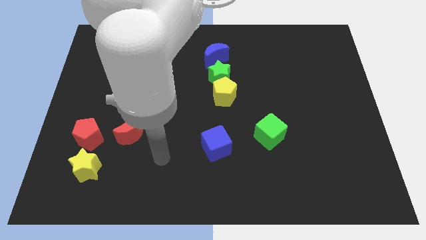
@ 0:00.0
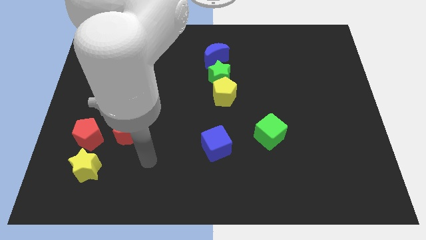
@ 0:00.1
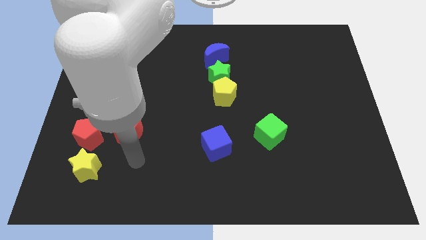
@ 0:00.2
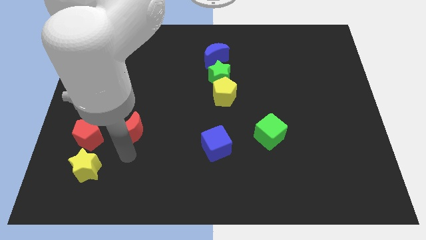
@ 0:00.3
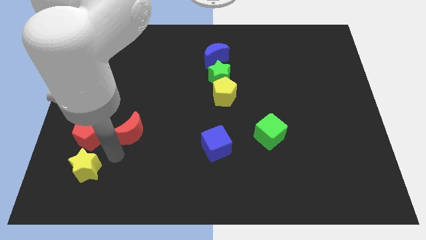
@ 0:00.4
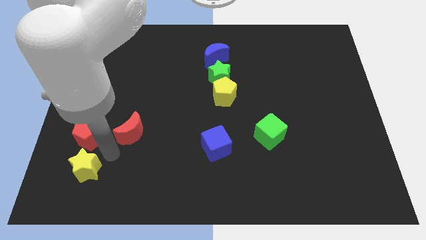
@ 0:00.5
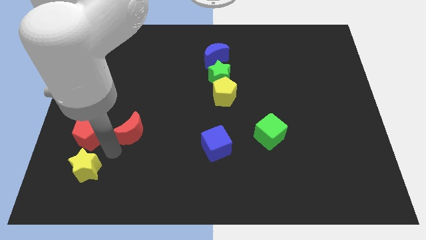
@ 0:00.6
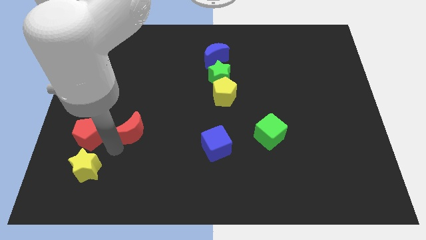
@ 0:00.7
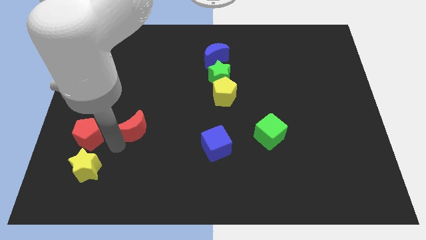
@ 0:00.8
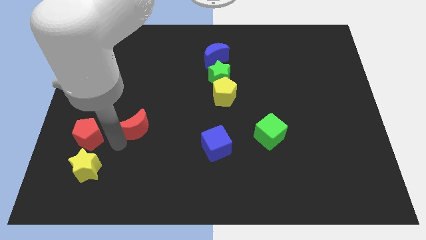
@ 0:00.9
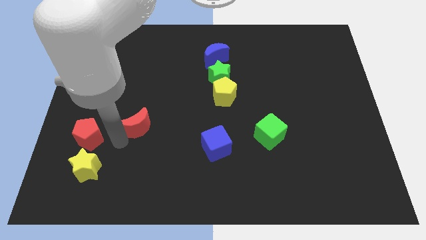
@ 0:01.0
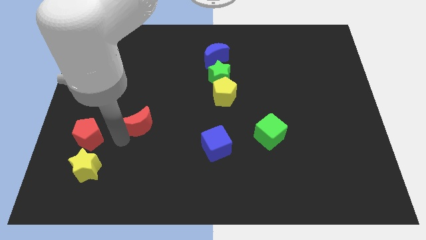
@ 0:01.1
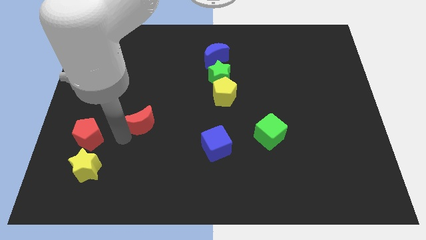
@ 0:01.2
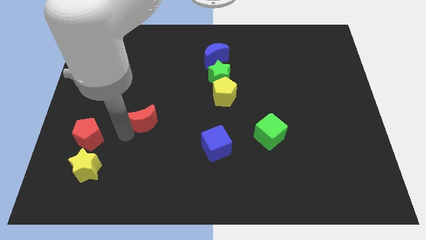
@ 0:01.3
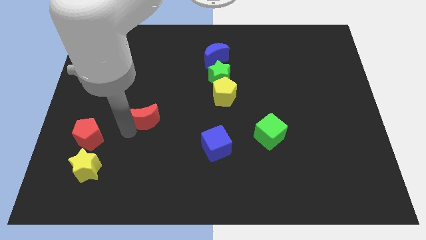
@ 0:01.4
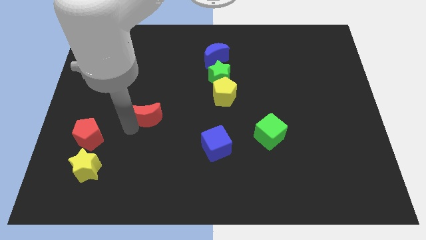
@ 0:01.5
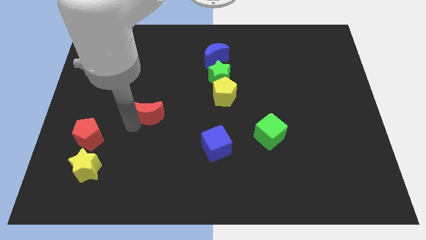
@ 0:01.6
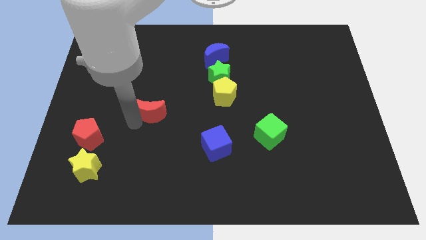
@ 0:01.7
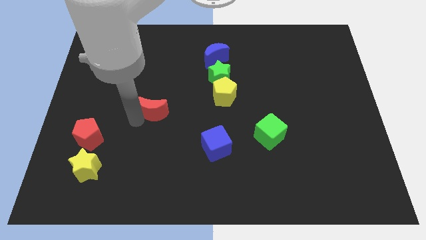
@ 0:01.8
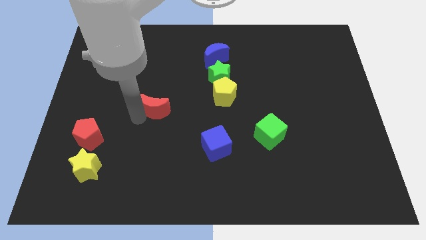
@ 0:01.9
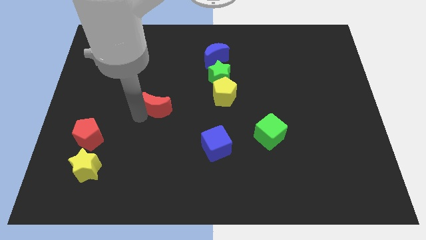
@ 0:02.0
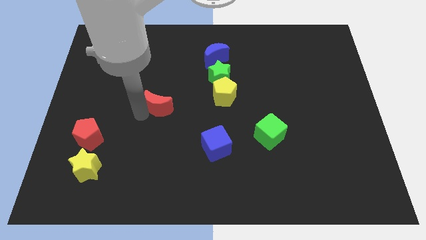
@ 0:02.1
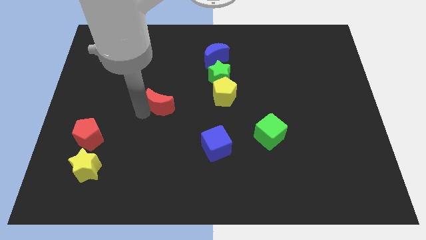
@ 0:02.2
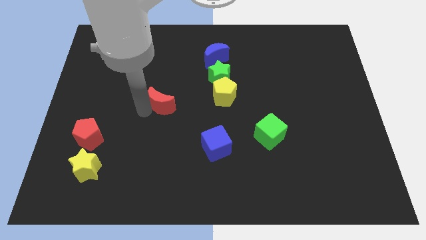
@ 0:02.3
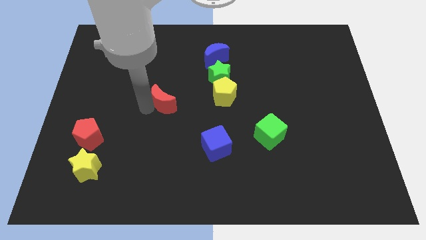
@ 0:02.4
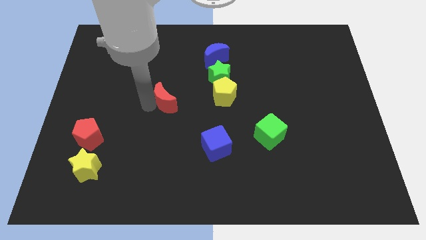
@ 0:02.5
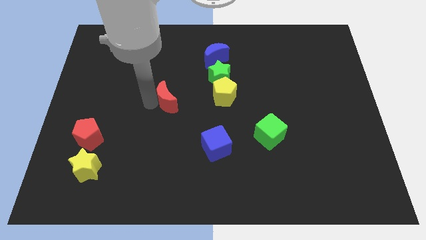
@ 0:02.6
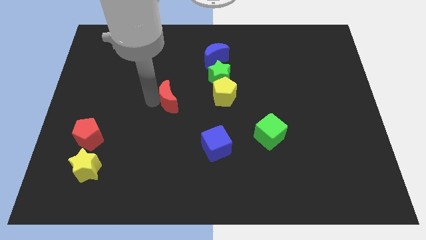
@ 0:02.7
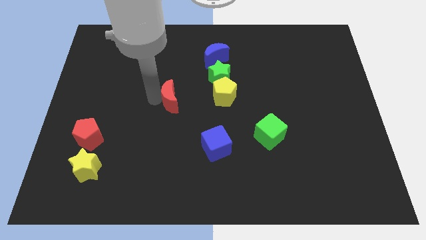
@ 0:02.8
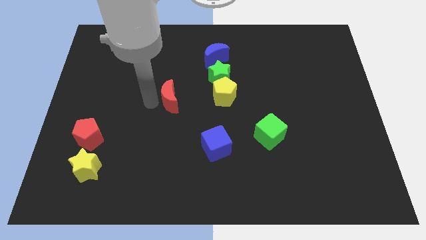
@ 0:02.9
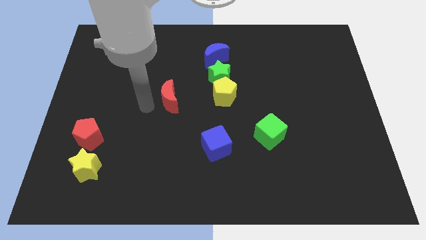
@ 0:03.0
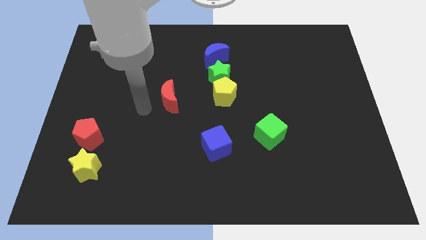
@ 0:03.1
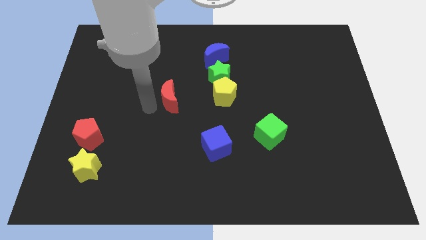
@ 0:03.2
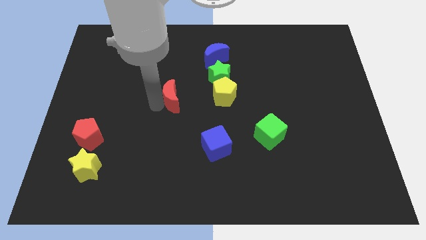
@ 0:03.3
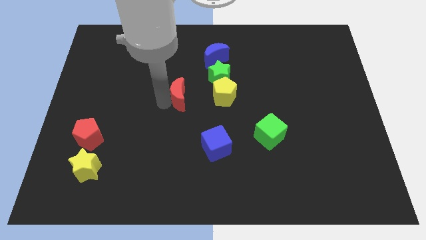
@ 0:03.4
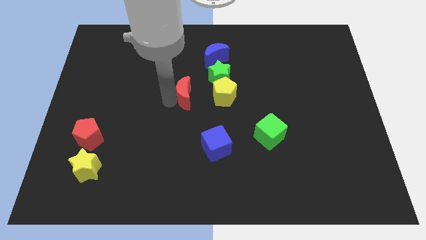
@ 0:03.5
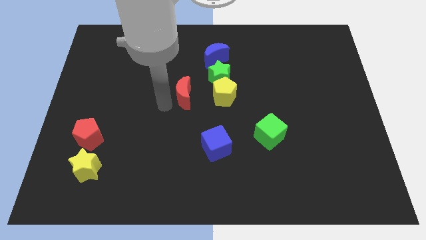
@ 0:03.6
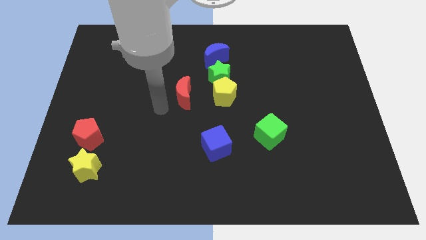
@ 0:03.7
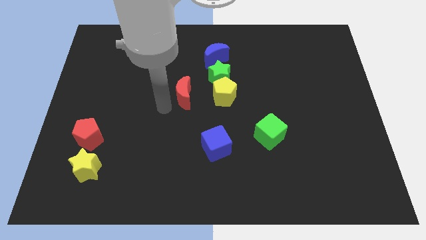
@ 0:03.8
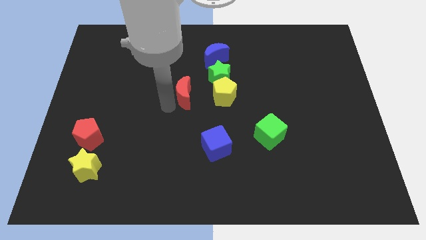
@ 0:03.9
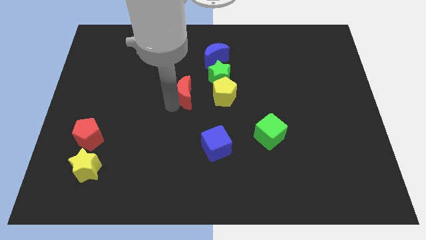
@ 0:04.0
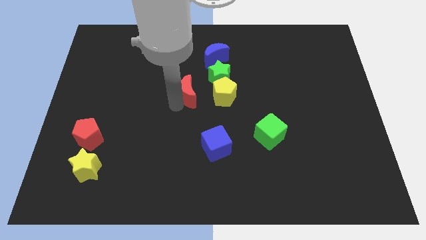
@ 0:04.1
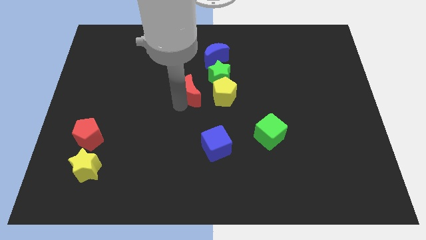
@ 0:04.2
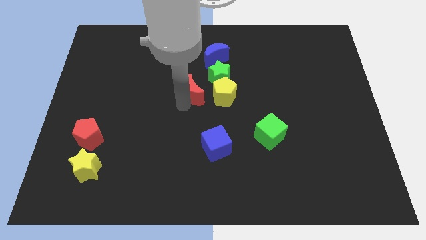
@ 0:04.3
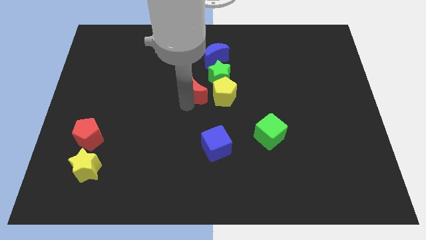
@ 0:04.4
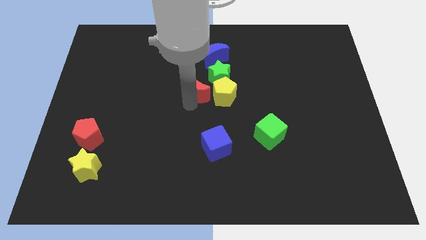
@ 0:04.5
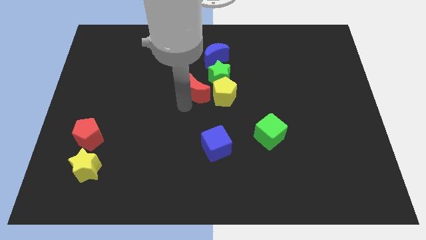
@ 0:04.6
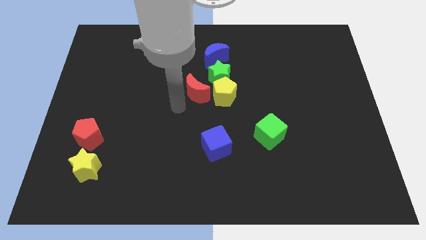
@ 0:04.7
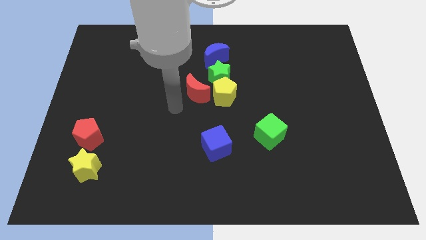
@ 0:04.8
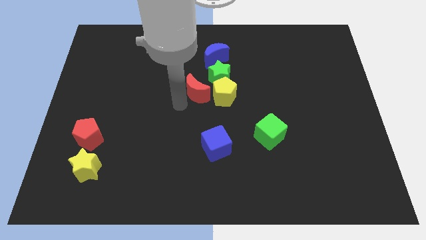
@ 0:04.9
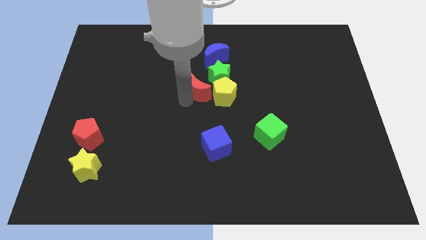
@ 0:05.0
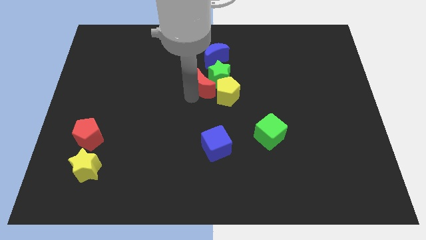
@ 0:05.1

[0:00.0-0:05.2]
push the red moon close to the green star

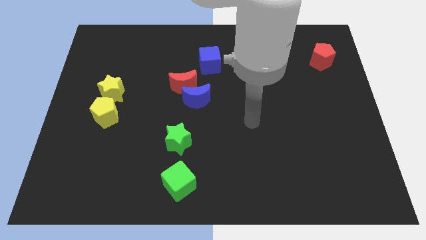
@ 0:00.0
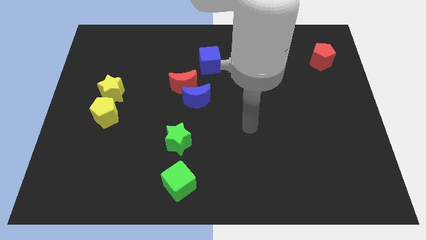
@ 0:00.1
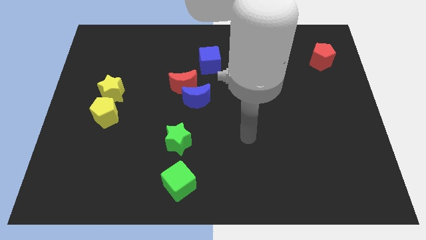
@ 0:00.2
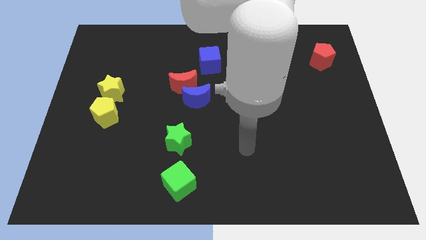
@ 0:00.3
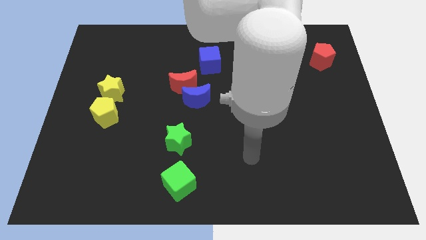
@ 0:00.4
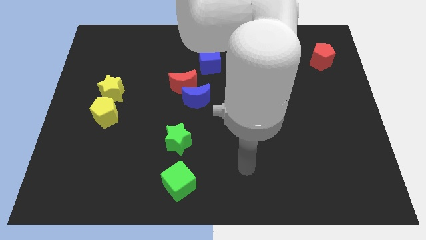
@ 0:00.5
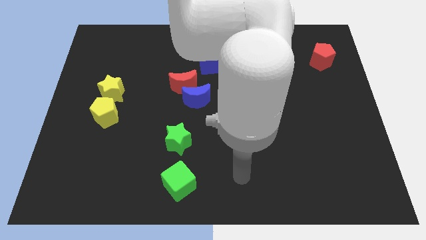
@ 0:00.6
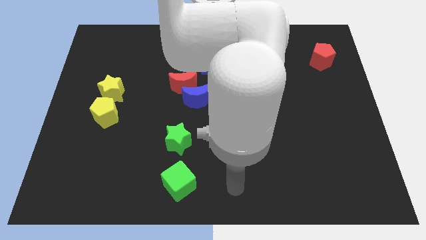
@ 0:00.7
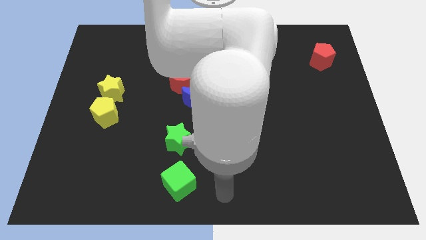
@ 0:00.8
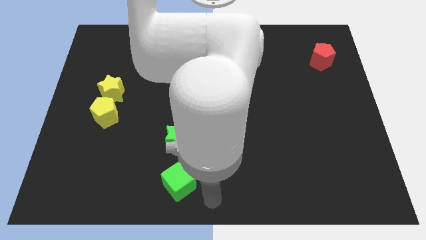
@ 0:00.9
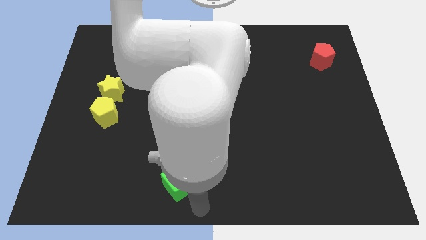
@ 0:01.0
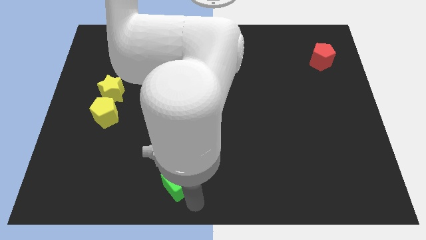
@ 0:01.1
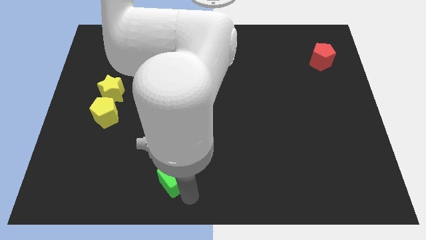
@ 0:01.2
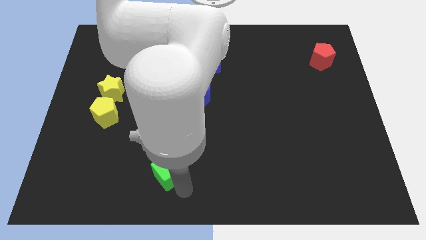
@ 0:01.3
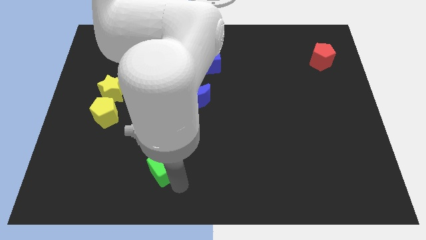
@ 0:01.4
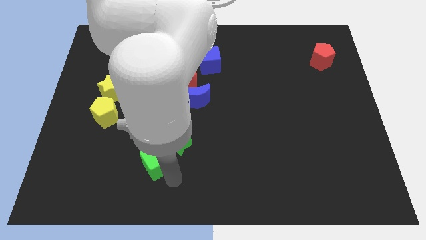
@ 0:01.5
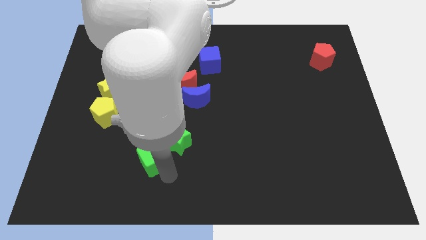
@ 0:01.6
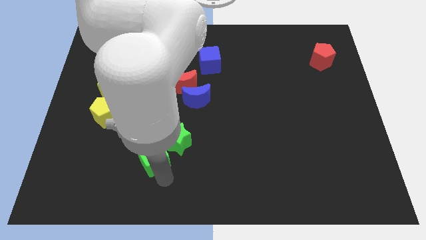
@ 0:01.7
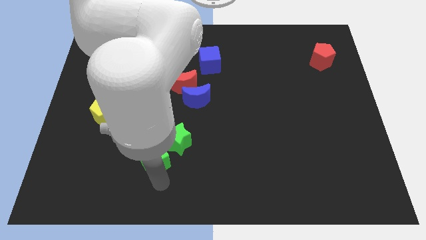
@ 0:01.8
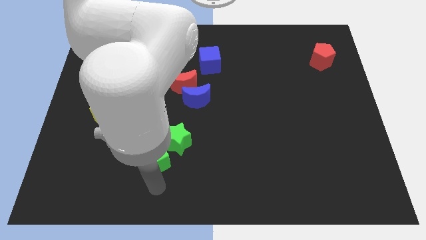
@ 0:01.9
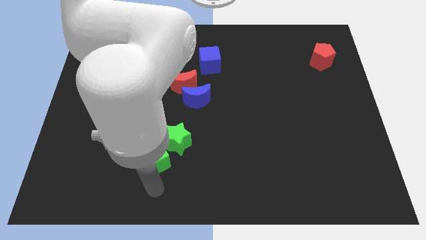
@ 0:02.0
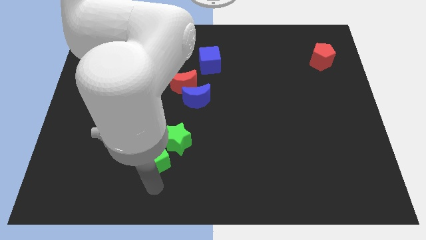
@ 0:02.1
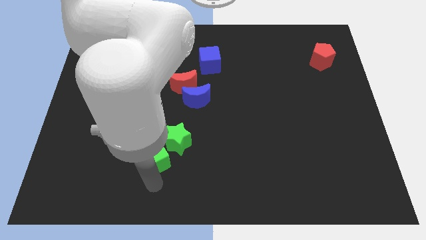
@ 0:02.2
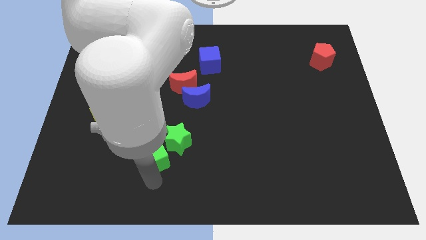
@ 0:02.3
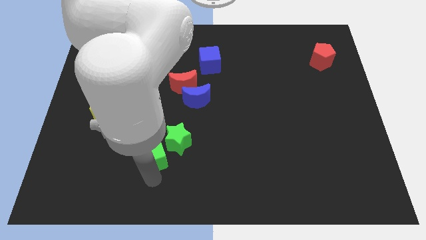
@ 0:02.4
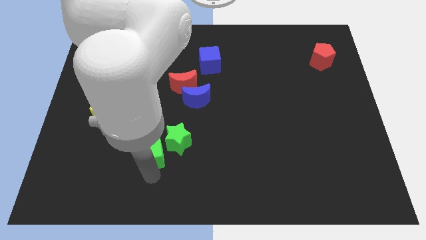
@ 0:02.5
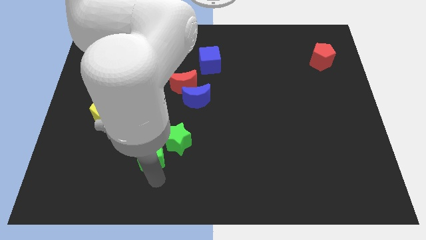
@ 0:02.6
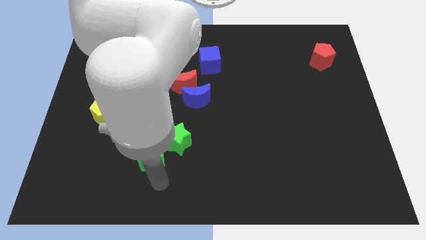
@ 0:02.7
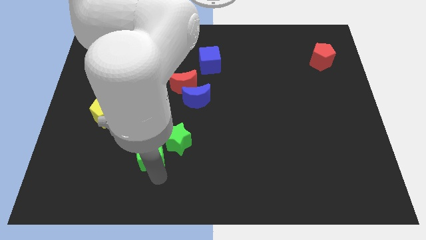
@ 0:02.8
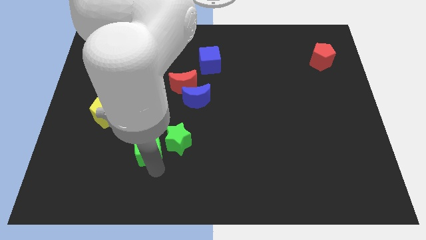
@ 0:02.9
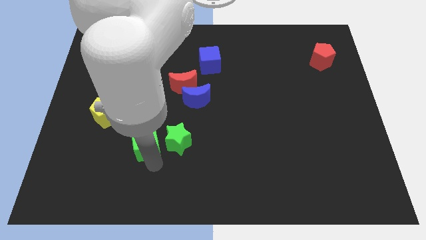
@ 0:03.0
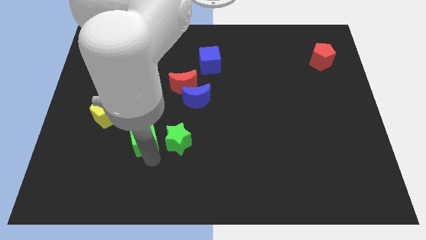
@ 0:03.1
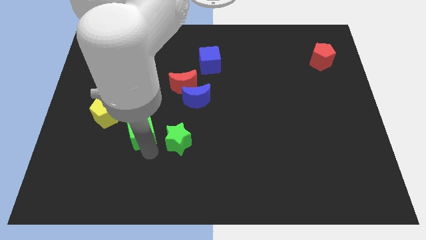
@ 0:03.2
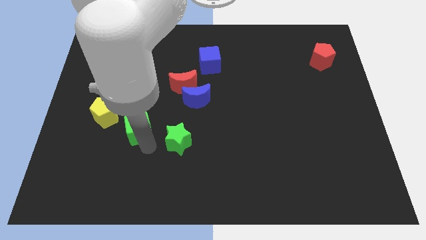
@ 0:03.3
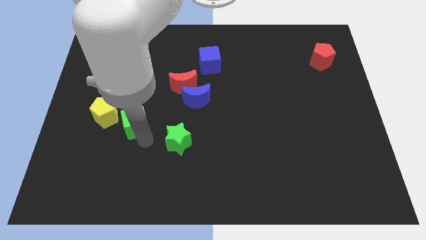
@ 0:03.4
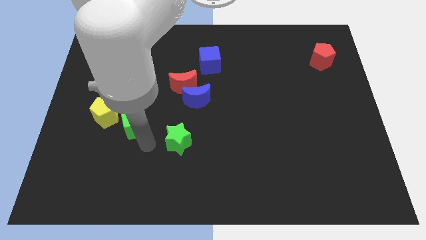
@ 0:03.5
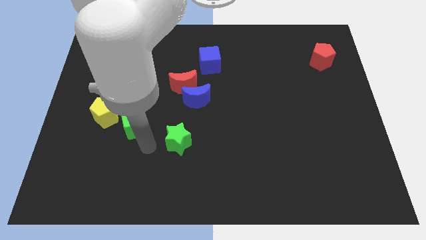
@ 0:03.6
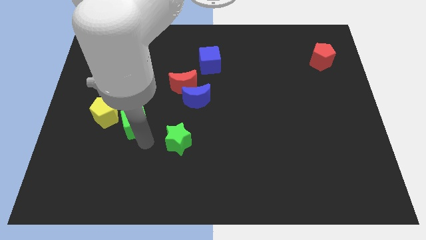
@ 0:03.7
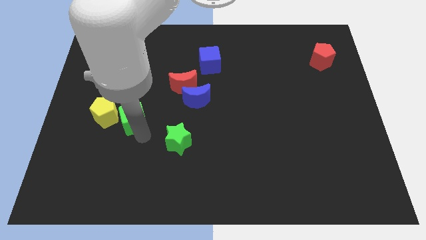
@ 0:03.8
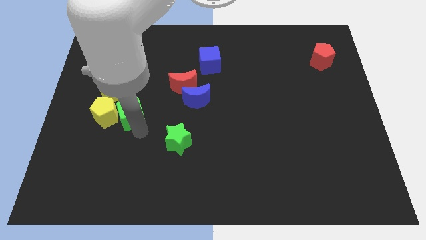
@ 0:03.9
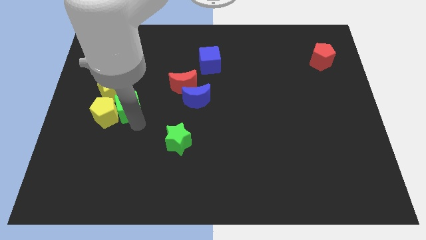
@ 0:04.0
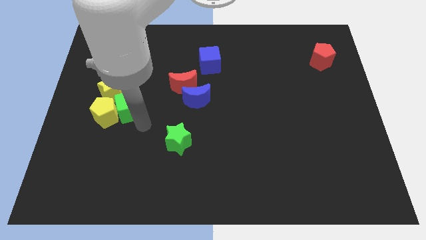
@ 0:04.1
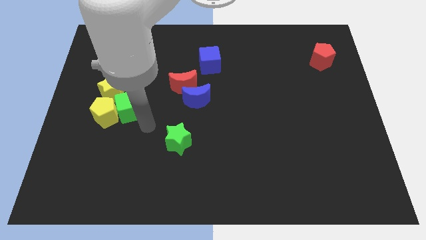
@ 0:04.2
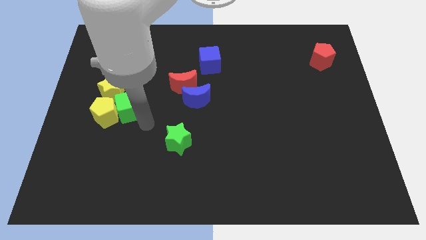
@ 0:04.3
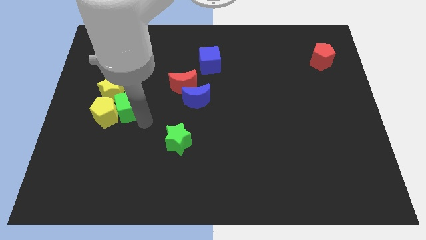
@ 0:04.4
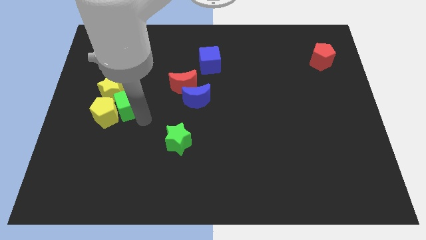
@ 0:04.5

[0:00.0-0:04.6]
slide the green cube next to the yellow star
